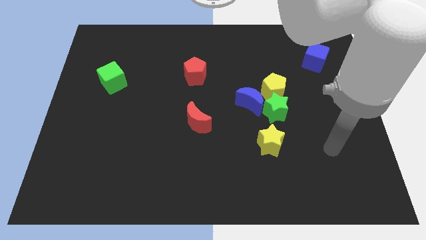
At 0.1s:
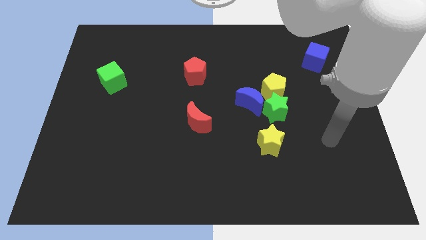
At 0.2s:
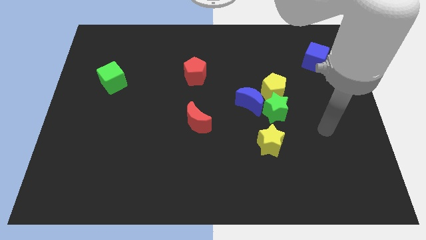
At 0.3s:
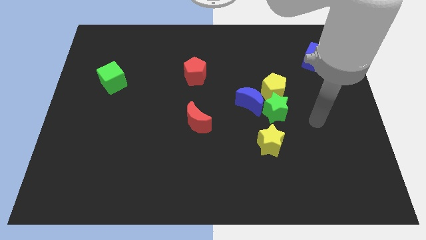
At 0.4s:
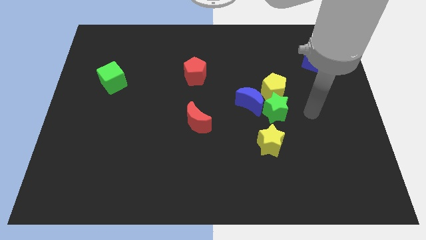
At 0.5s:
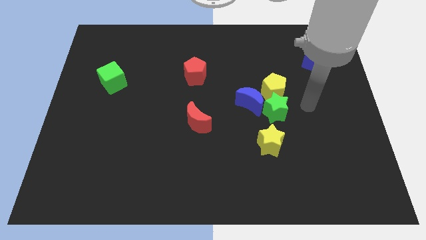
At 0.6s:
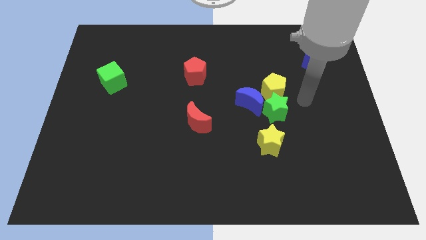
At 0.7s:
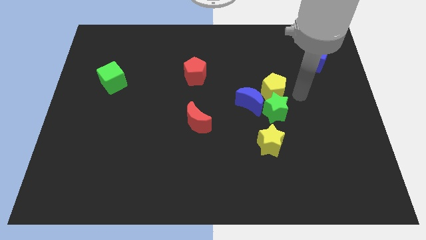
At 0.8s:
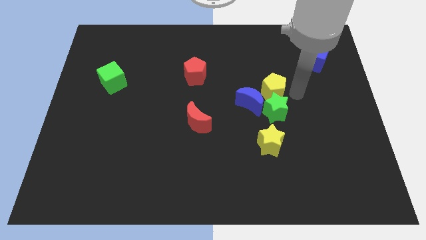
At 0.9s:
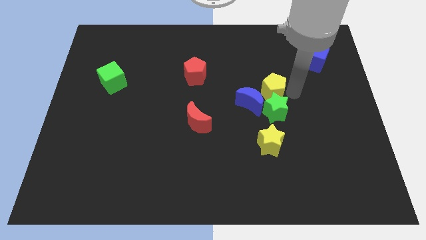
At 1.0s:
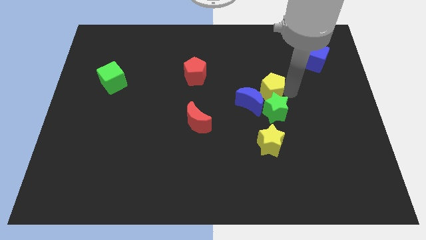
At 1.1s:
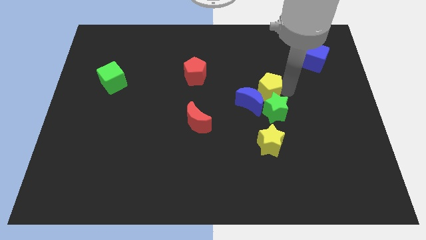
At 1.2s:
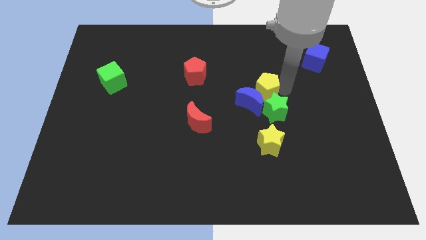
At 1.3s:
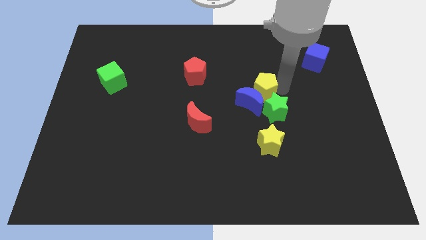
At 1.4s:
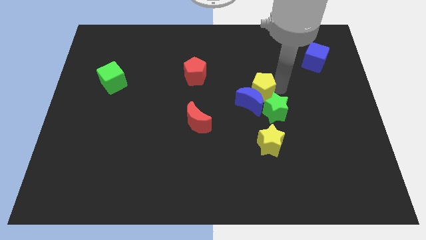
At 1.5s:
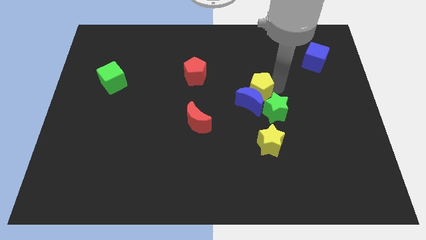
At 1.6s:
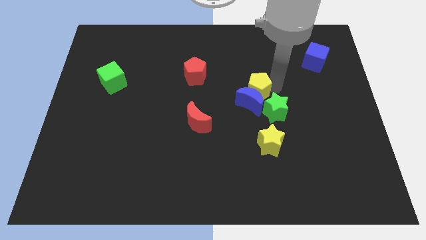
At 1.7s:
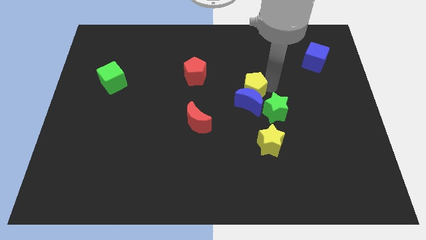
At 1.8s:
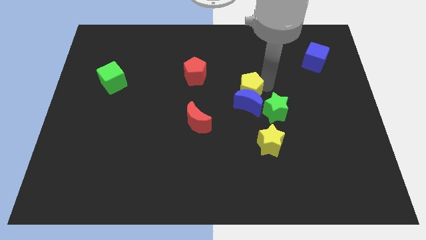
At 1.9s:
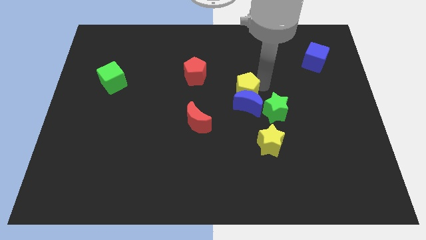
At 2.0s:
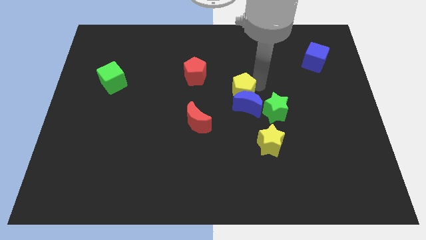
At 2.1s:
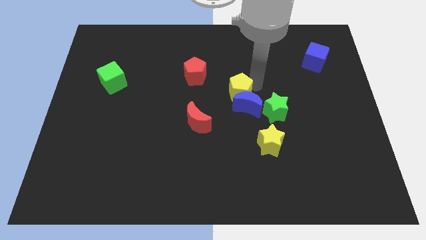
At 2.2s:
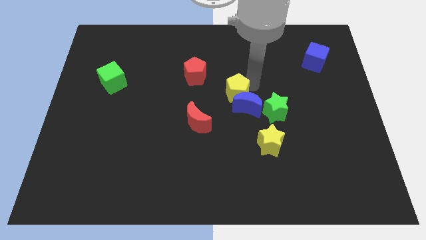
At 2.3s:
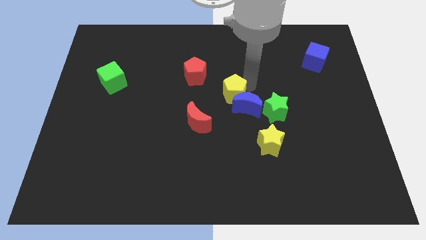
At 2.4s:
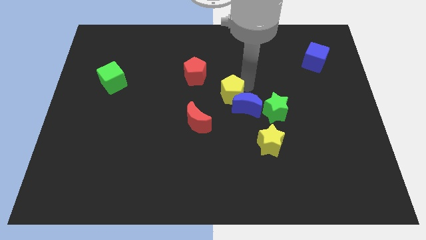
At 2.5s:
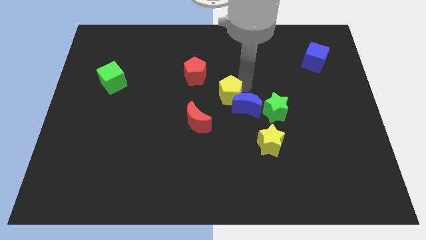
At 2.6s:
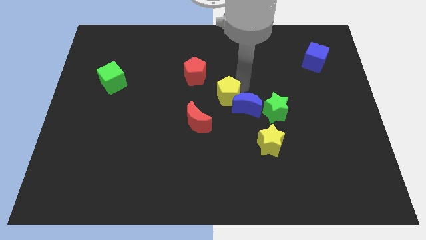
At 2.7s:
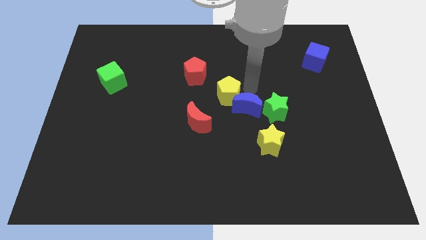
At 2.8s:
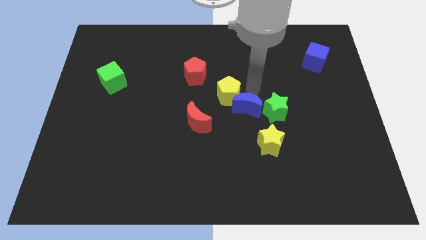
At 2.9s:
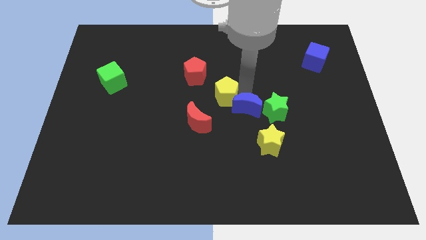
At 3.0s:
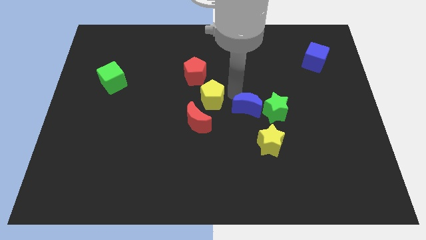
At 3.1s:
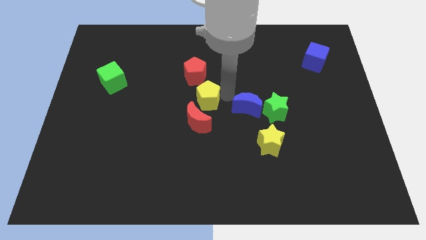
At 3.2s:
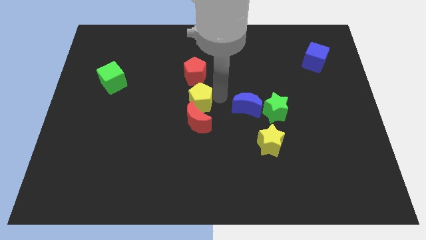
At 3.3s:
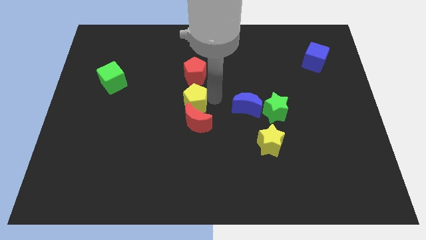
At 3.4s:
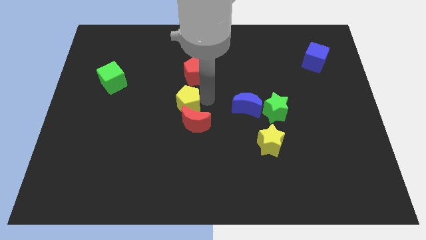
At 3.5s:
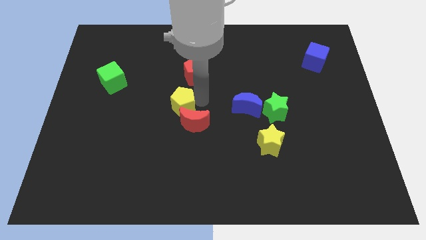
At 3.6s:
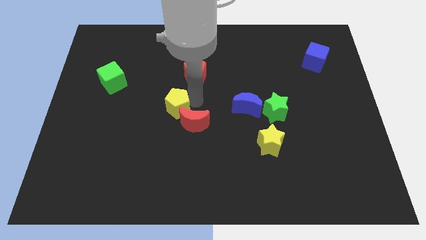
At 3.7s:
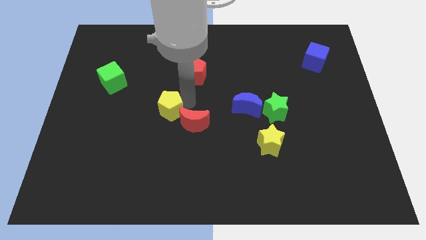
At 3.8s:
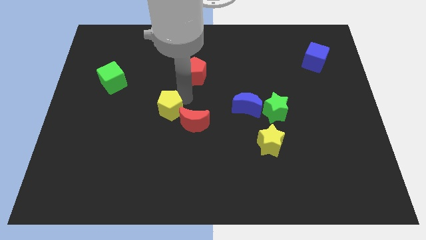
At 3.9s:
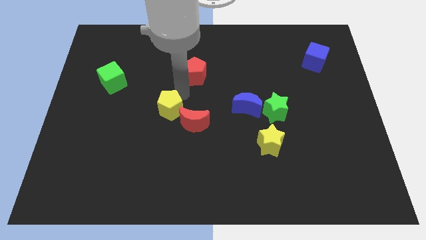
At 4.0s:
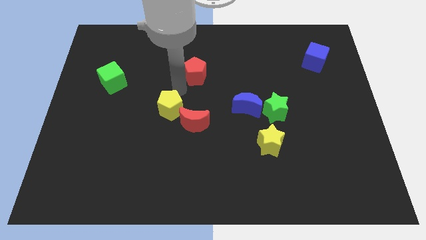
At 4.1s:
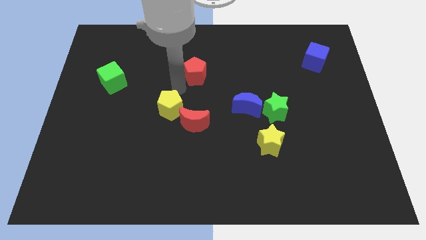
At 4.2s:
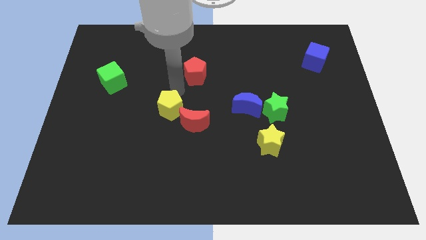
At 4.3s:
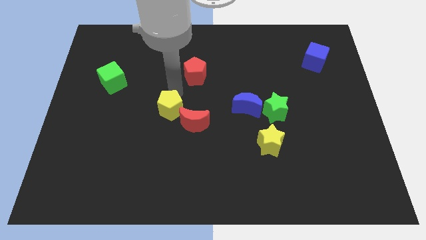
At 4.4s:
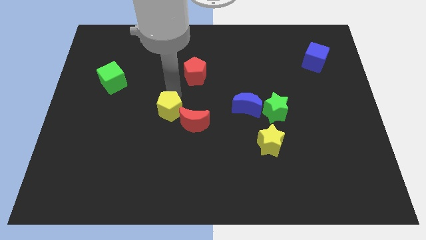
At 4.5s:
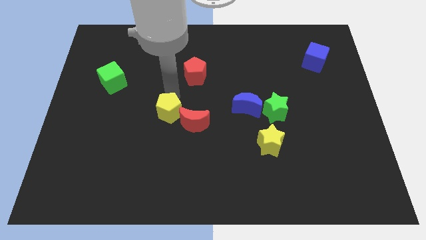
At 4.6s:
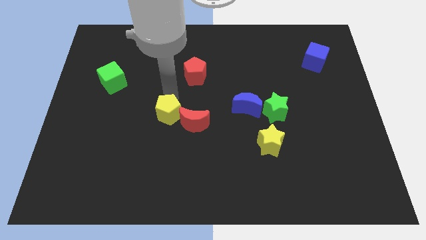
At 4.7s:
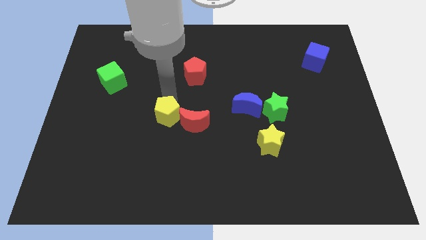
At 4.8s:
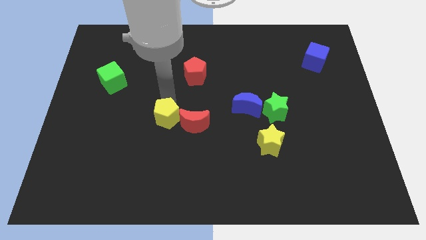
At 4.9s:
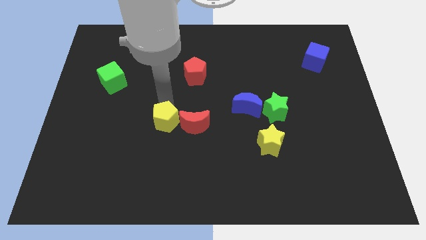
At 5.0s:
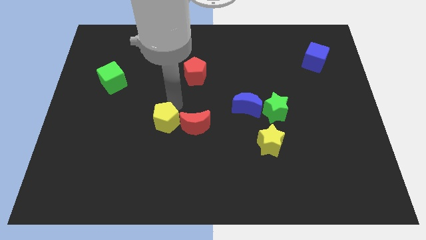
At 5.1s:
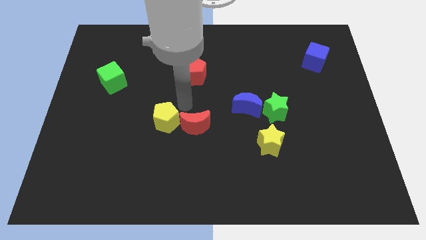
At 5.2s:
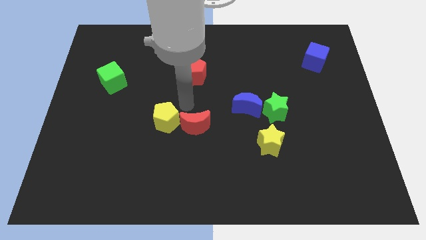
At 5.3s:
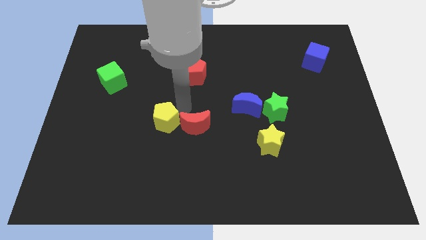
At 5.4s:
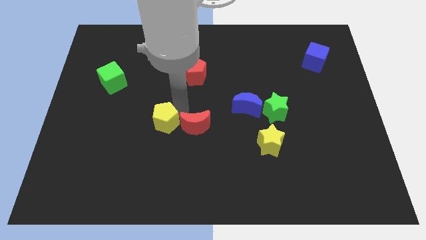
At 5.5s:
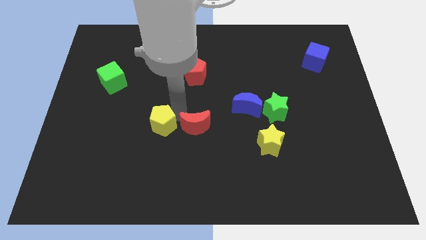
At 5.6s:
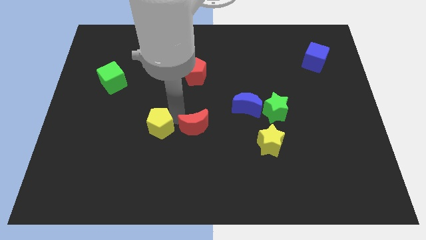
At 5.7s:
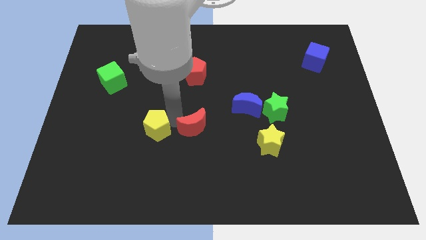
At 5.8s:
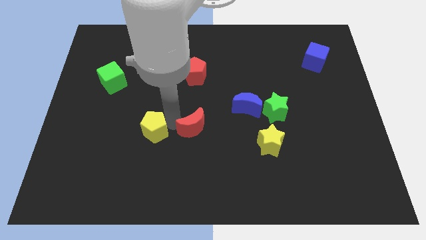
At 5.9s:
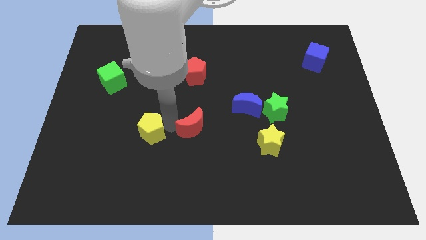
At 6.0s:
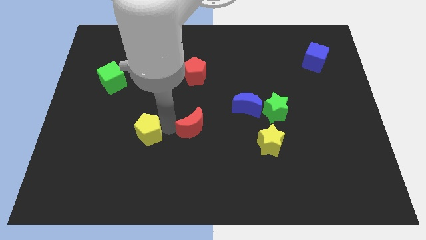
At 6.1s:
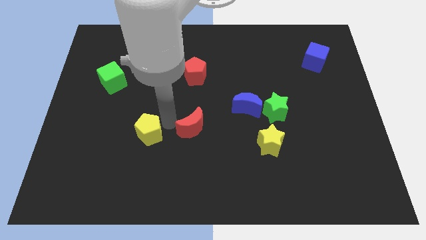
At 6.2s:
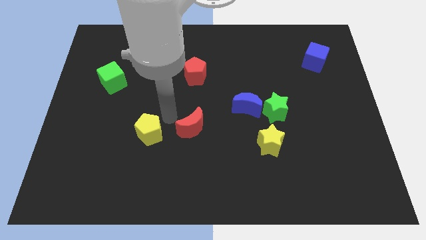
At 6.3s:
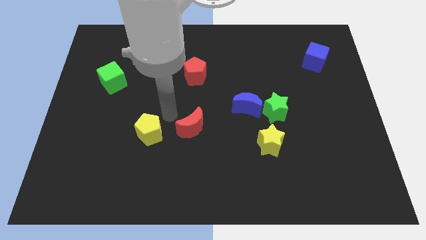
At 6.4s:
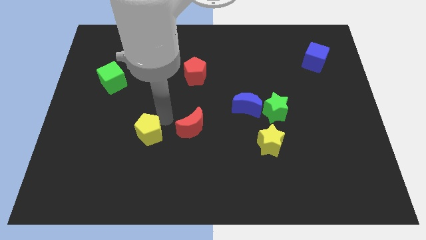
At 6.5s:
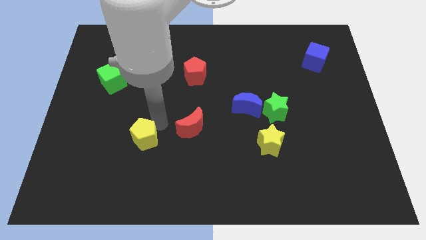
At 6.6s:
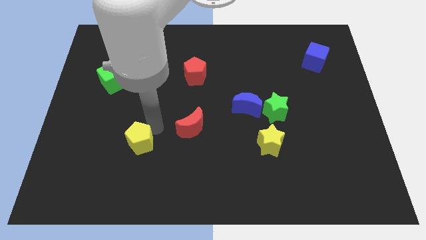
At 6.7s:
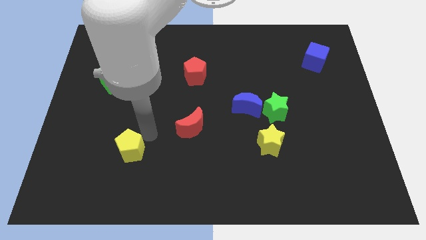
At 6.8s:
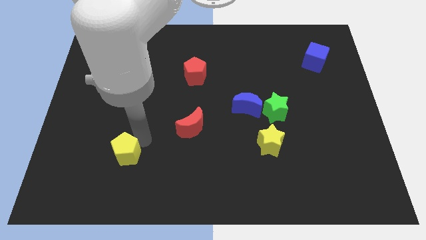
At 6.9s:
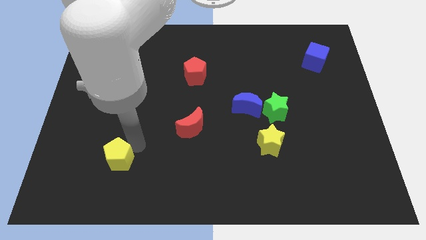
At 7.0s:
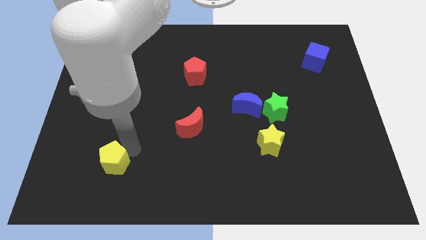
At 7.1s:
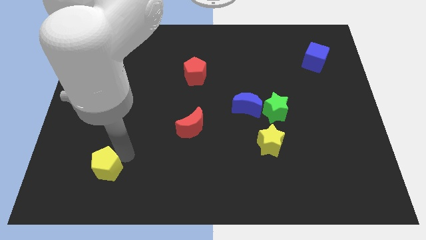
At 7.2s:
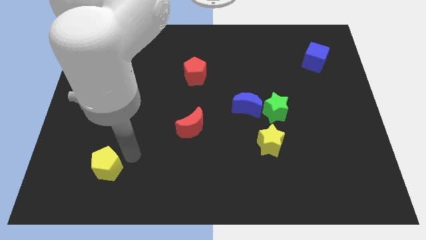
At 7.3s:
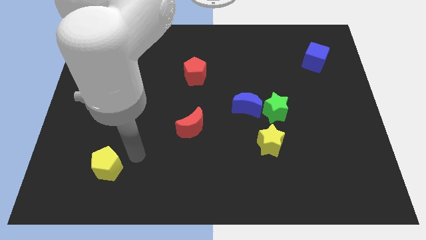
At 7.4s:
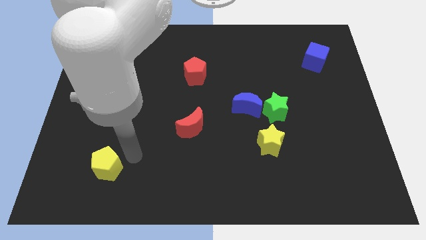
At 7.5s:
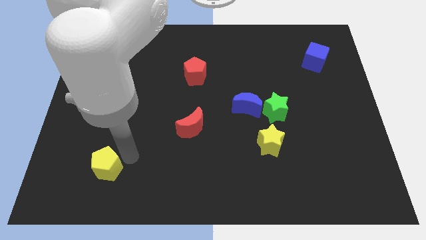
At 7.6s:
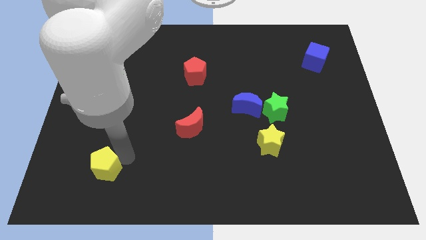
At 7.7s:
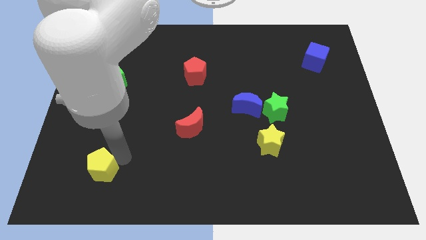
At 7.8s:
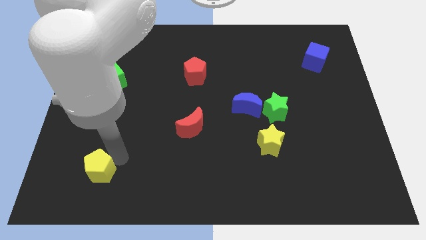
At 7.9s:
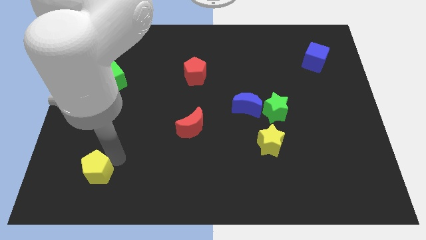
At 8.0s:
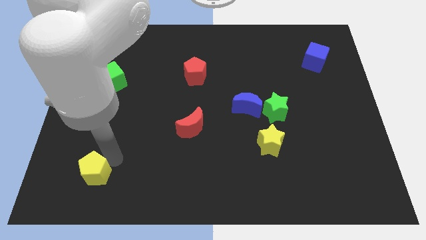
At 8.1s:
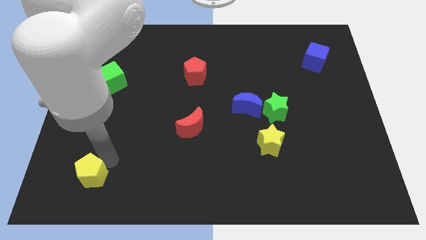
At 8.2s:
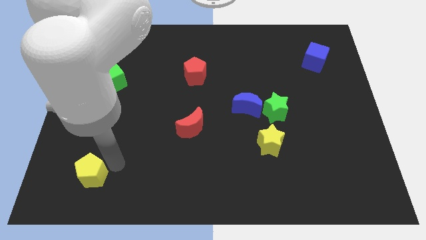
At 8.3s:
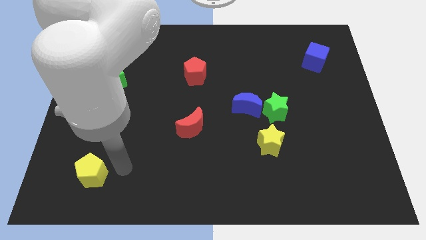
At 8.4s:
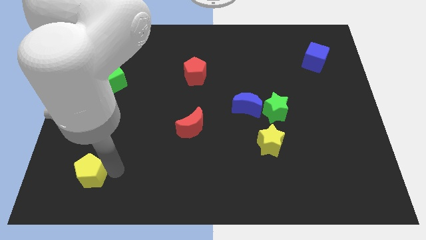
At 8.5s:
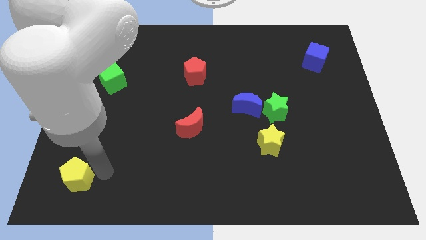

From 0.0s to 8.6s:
move the yellow pentagon to the bottom left
